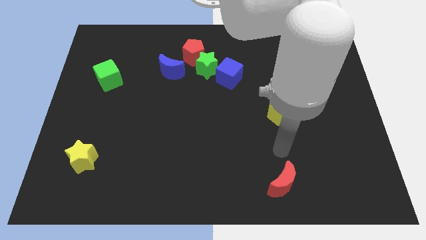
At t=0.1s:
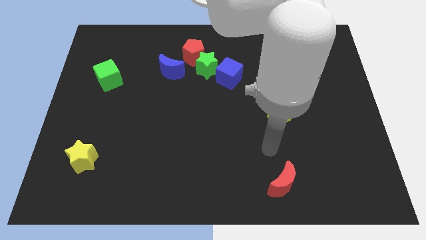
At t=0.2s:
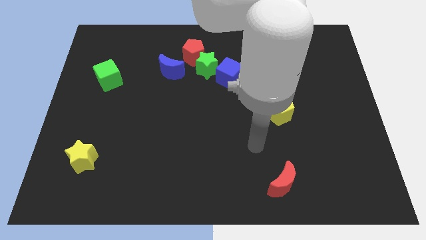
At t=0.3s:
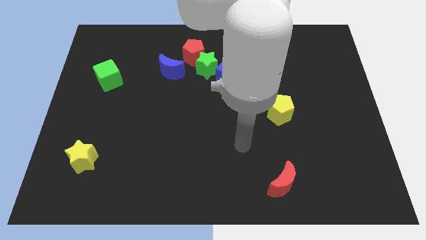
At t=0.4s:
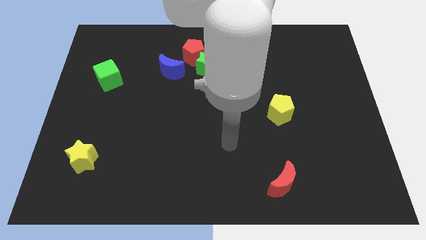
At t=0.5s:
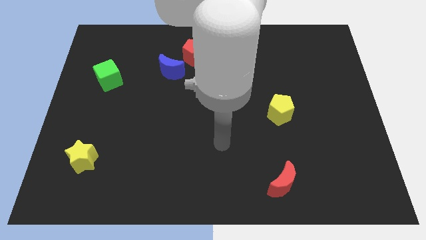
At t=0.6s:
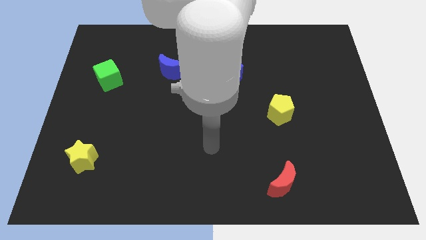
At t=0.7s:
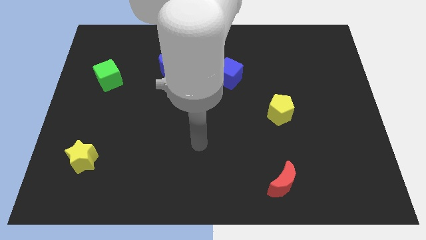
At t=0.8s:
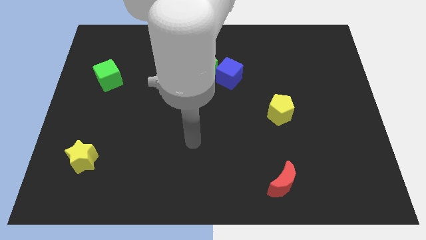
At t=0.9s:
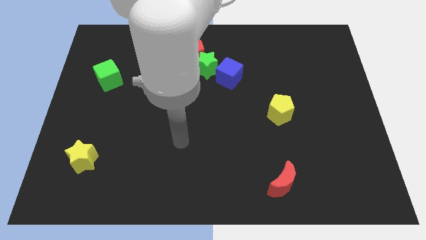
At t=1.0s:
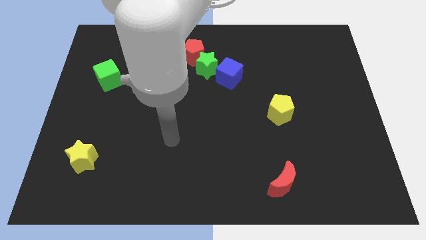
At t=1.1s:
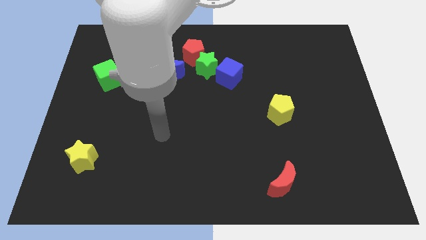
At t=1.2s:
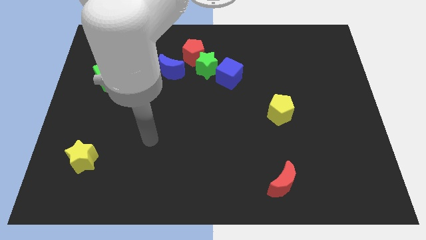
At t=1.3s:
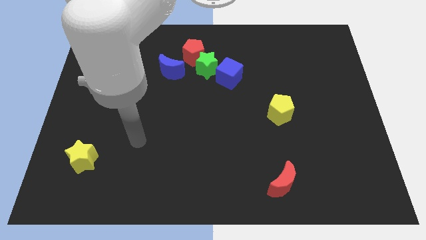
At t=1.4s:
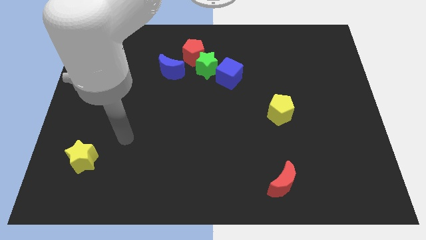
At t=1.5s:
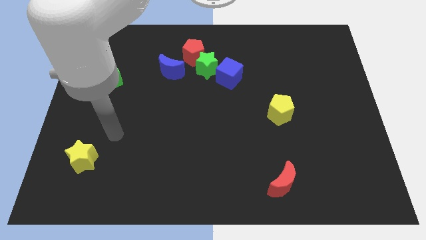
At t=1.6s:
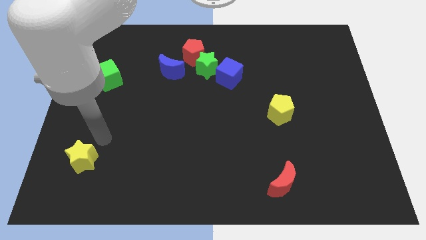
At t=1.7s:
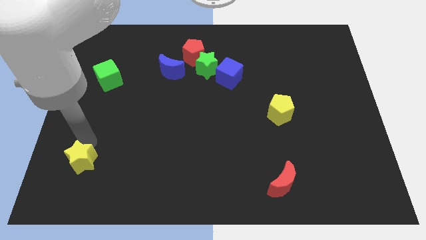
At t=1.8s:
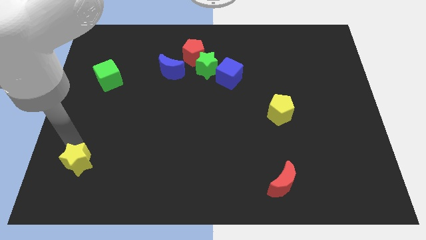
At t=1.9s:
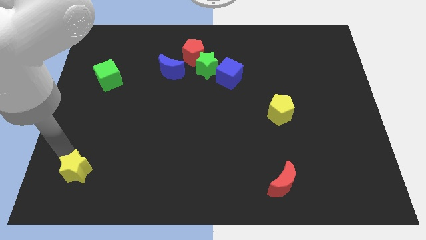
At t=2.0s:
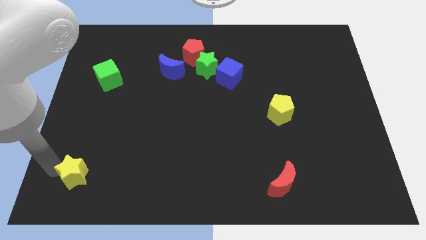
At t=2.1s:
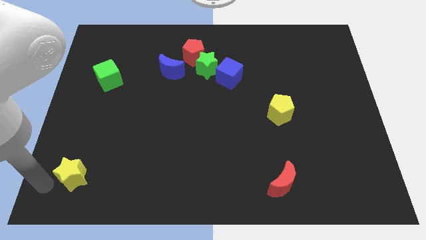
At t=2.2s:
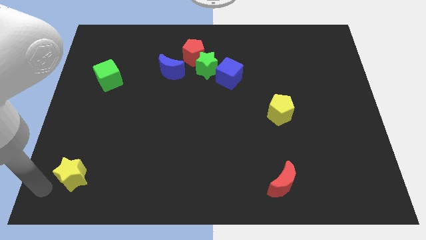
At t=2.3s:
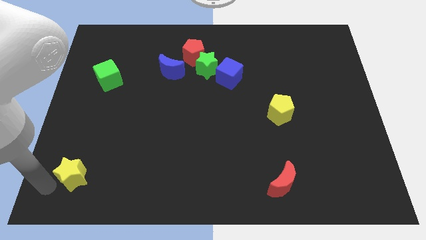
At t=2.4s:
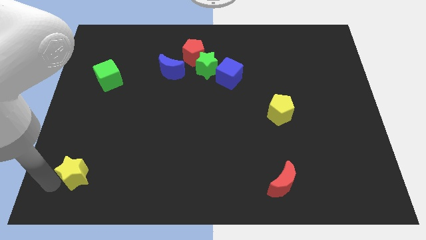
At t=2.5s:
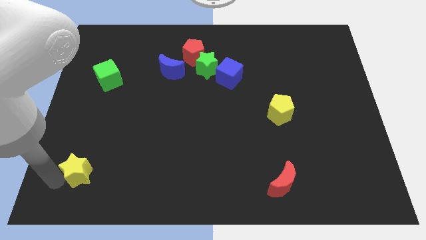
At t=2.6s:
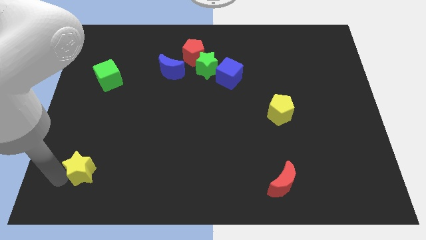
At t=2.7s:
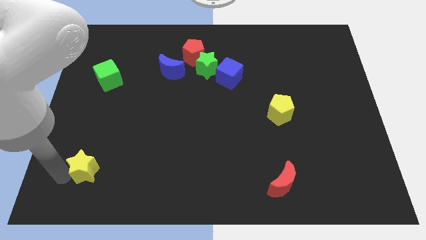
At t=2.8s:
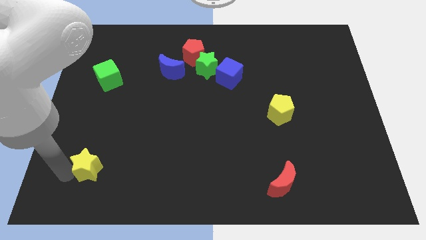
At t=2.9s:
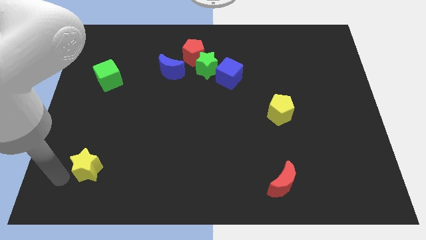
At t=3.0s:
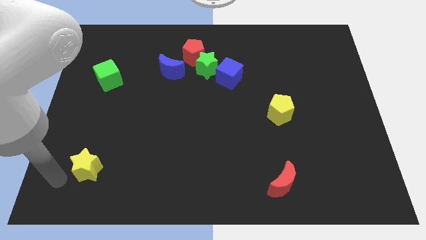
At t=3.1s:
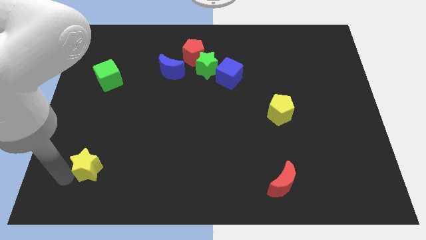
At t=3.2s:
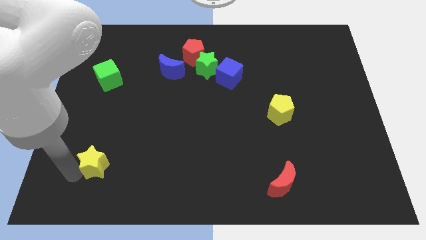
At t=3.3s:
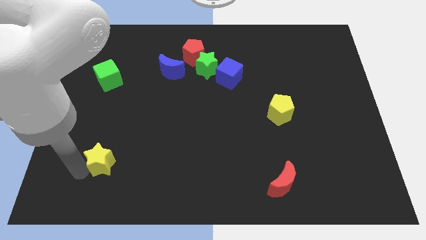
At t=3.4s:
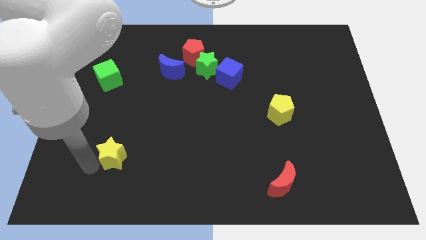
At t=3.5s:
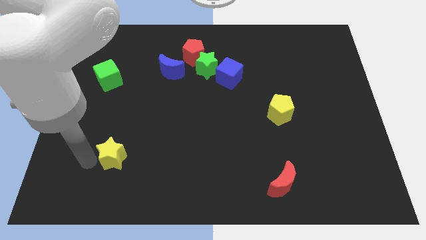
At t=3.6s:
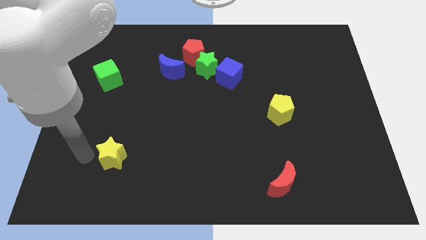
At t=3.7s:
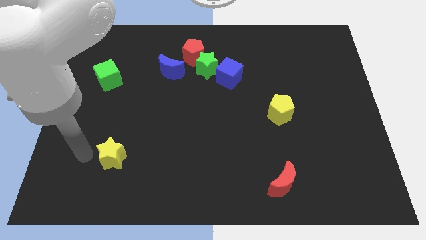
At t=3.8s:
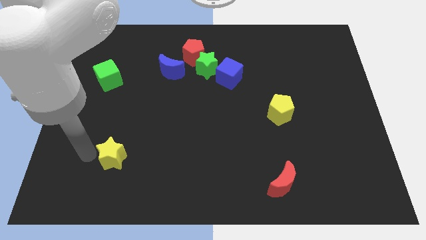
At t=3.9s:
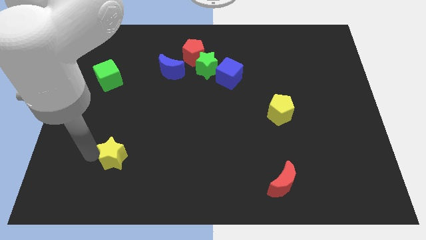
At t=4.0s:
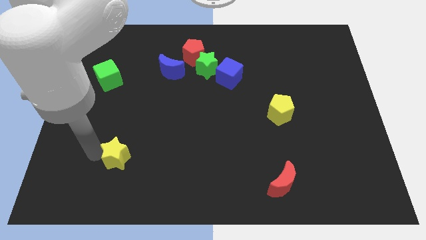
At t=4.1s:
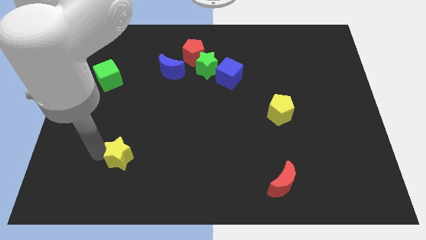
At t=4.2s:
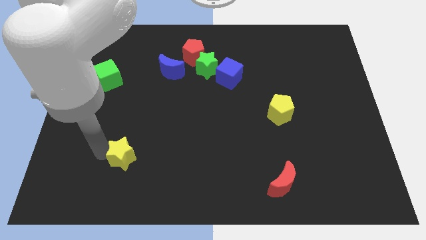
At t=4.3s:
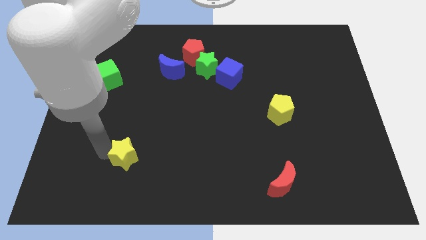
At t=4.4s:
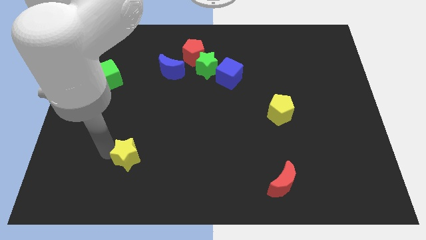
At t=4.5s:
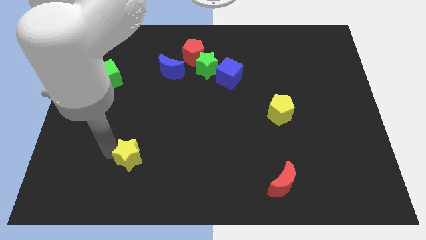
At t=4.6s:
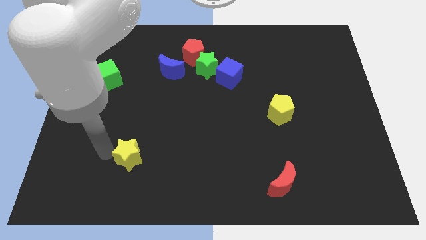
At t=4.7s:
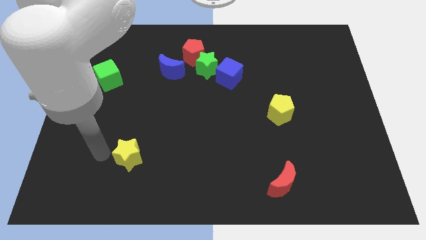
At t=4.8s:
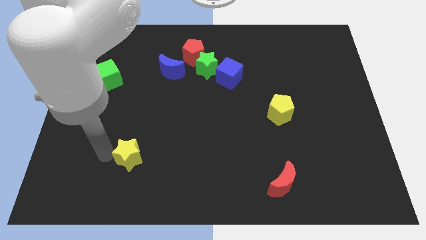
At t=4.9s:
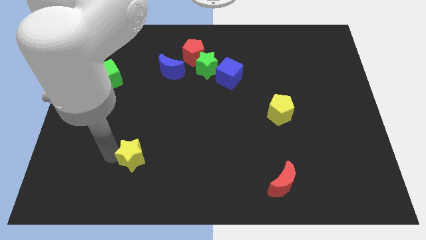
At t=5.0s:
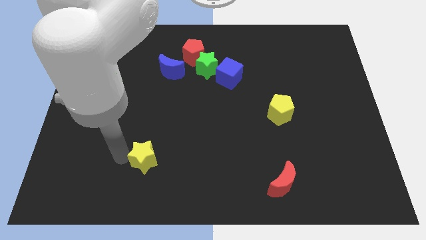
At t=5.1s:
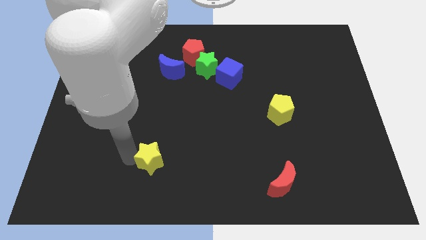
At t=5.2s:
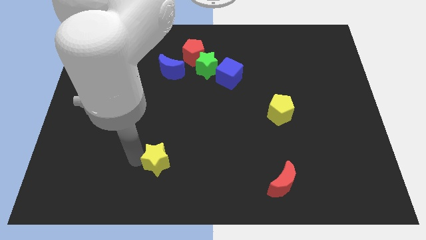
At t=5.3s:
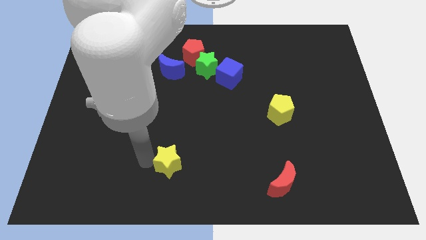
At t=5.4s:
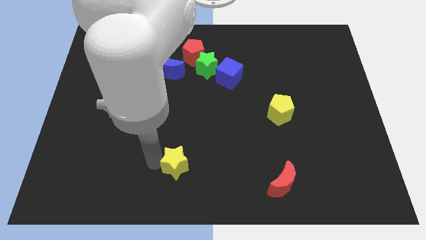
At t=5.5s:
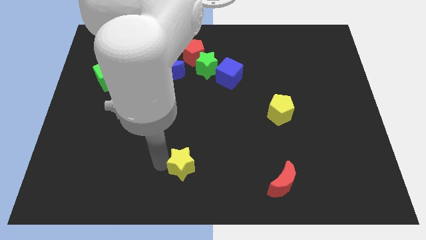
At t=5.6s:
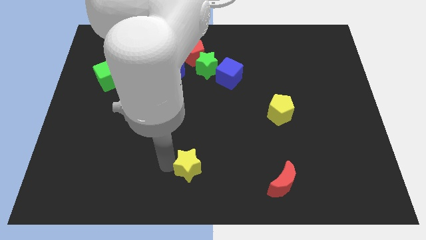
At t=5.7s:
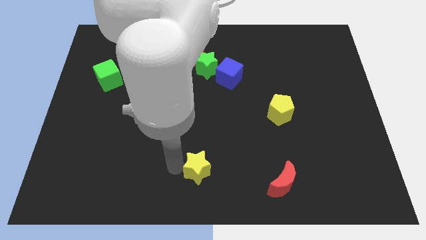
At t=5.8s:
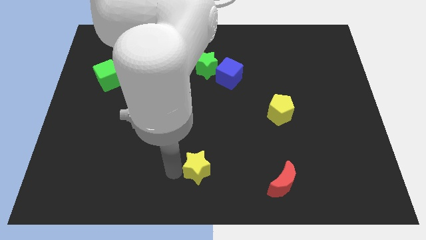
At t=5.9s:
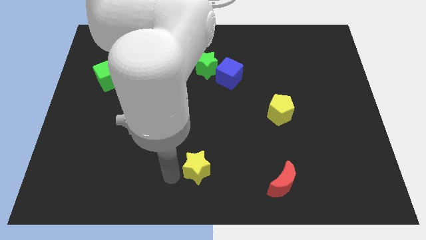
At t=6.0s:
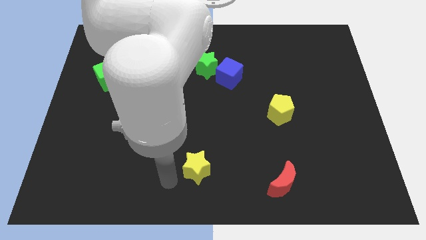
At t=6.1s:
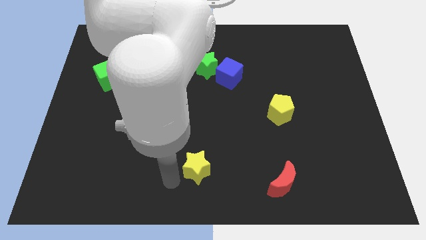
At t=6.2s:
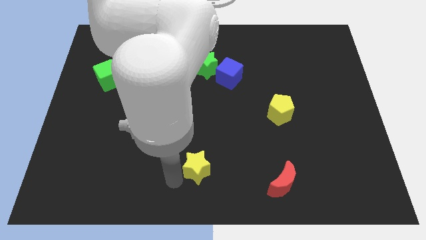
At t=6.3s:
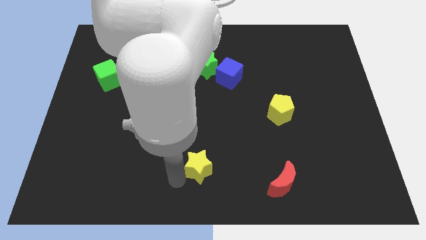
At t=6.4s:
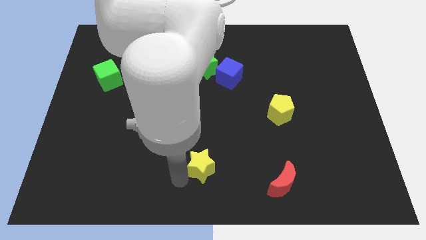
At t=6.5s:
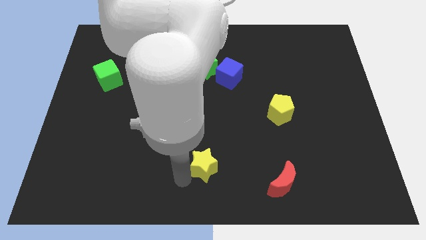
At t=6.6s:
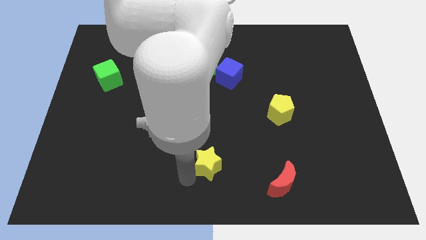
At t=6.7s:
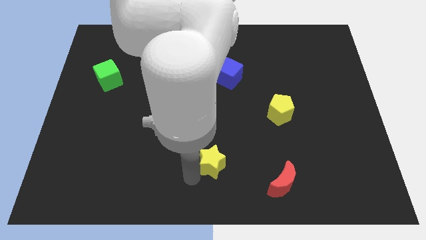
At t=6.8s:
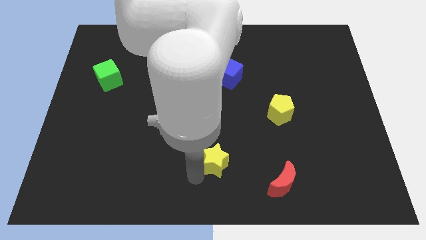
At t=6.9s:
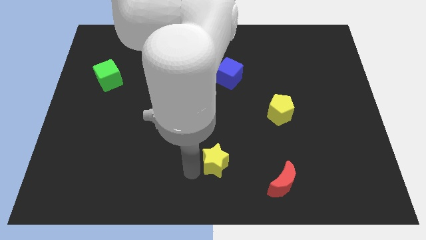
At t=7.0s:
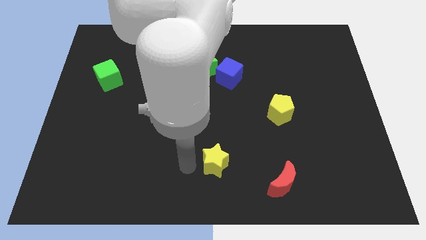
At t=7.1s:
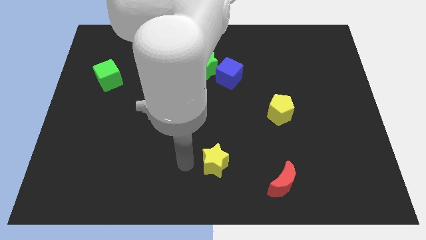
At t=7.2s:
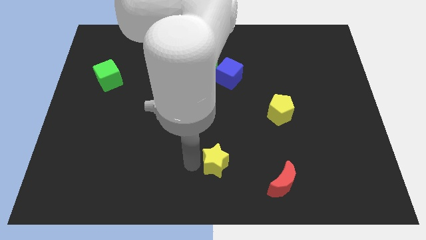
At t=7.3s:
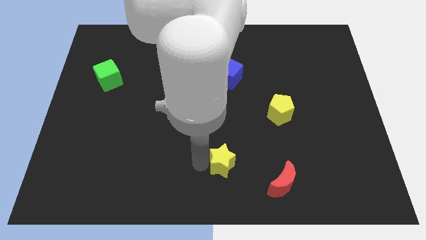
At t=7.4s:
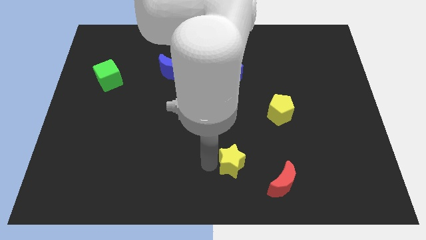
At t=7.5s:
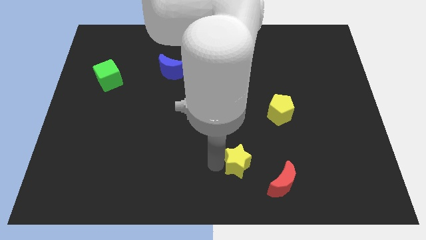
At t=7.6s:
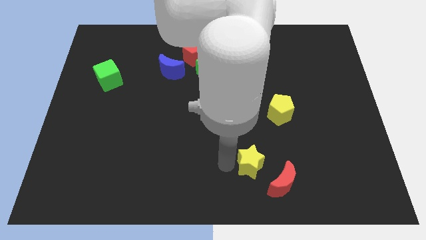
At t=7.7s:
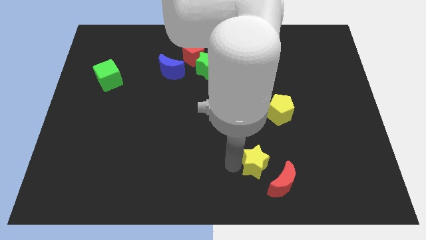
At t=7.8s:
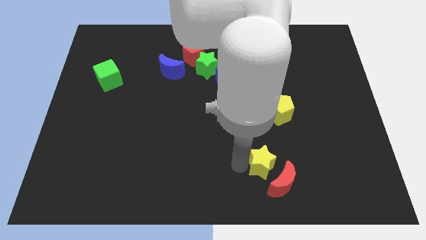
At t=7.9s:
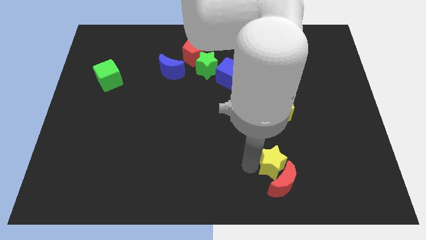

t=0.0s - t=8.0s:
slide the yellow star diagonally up and to the right of the red moon
